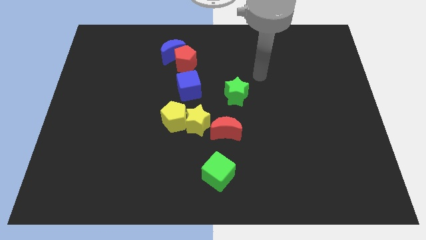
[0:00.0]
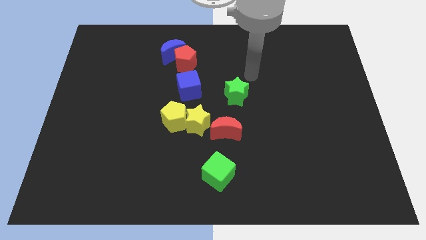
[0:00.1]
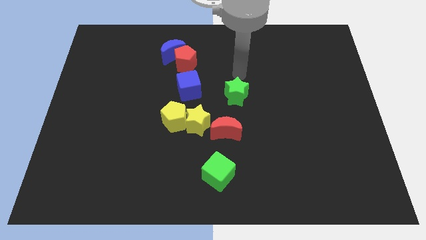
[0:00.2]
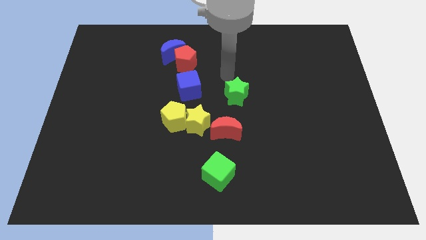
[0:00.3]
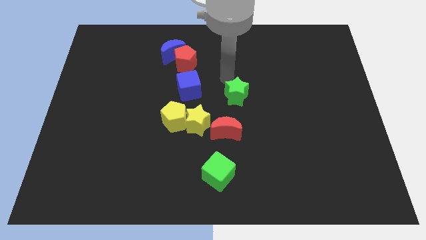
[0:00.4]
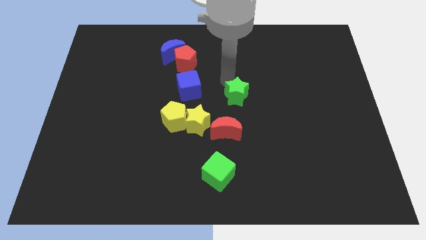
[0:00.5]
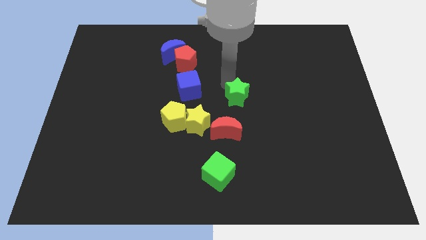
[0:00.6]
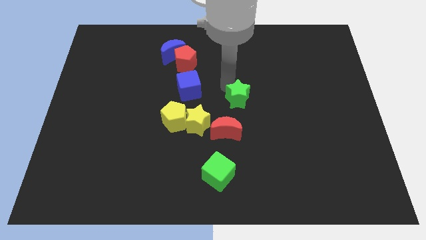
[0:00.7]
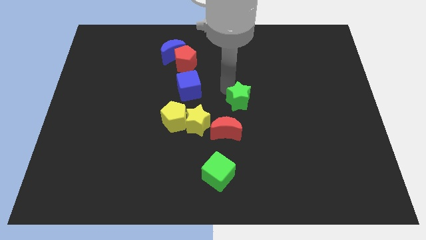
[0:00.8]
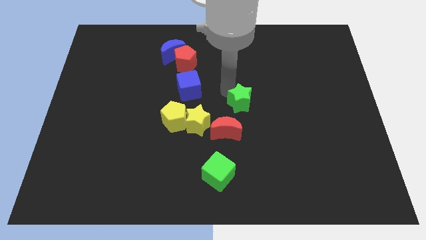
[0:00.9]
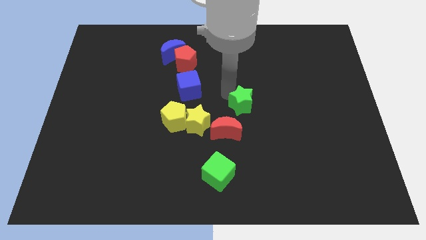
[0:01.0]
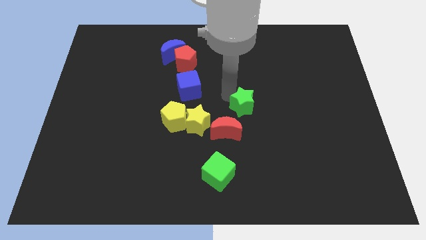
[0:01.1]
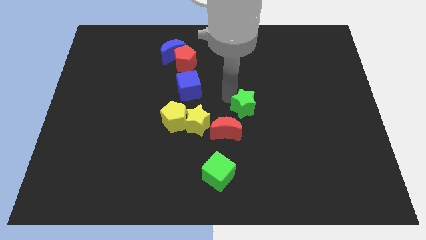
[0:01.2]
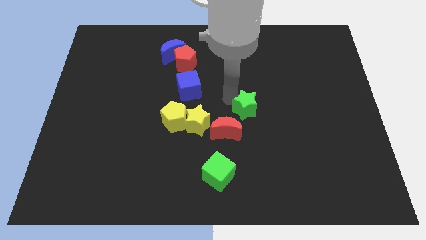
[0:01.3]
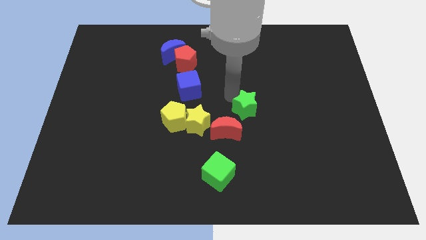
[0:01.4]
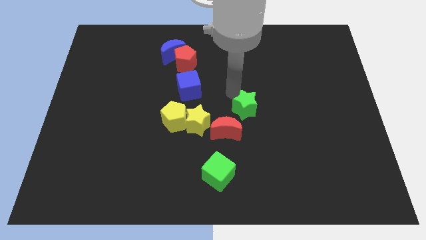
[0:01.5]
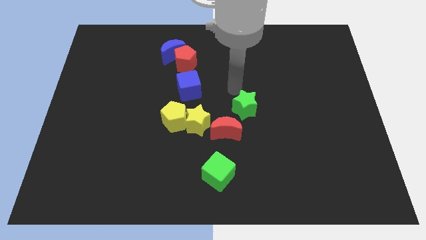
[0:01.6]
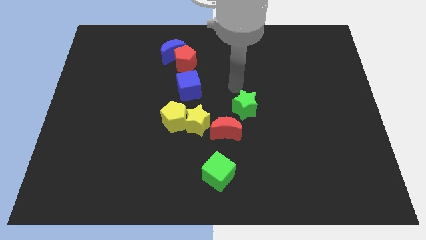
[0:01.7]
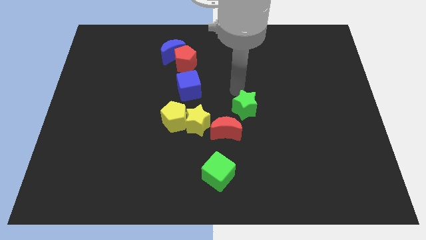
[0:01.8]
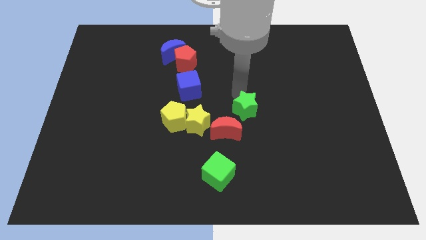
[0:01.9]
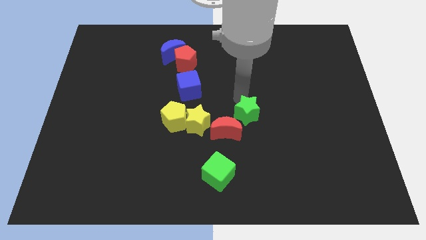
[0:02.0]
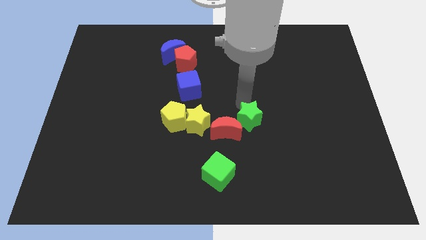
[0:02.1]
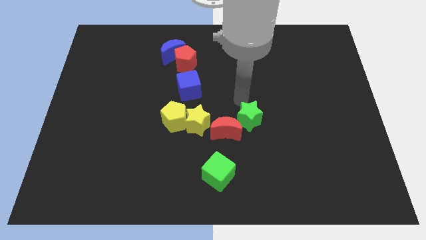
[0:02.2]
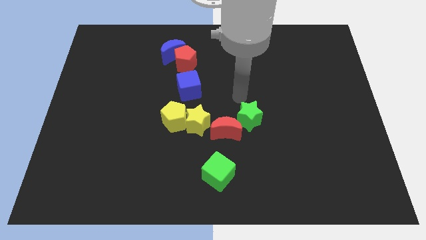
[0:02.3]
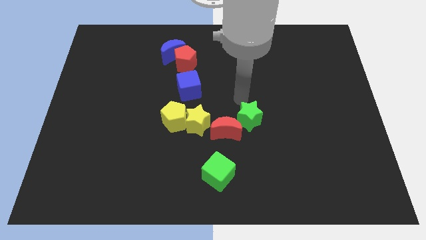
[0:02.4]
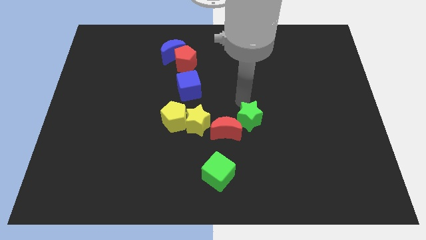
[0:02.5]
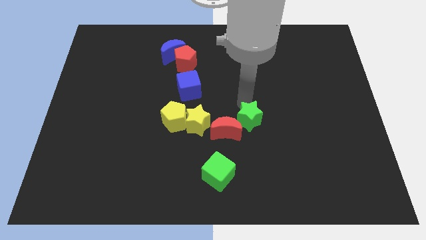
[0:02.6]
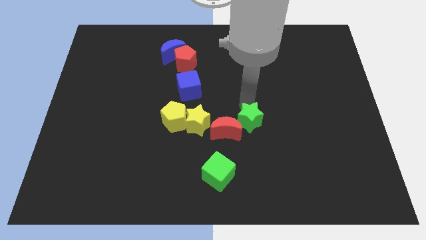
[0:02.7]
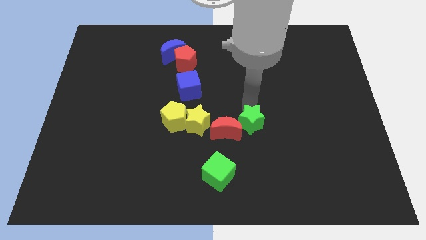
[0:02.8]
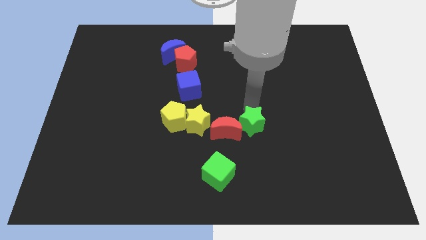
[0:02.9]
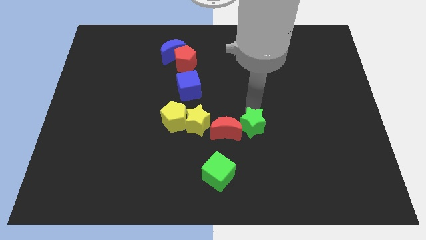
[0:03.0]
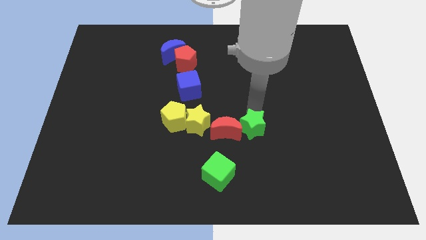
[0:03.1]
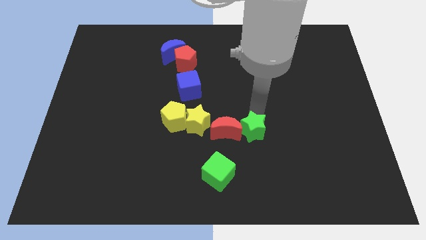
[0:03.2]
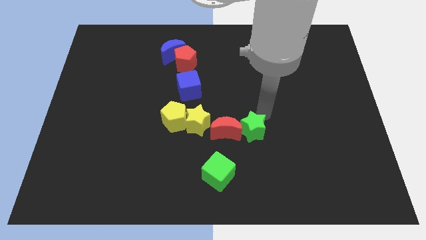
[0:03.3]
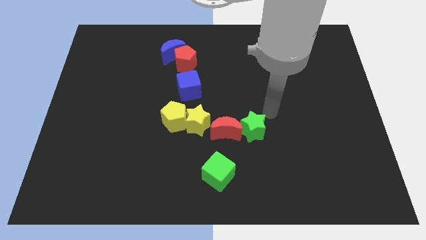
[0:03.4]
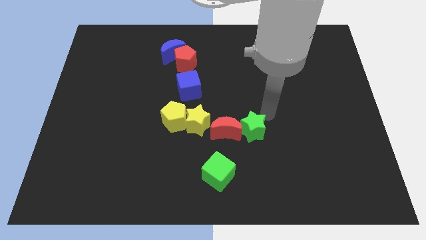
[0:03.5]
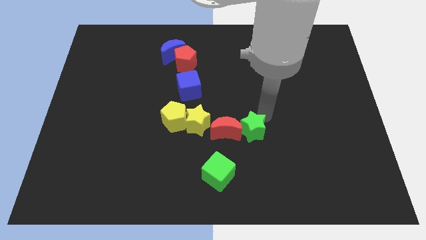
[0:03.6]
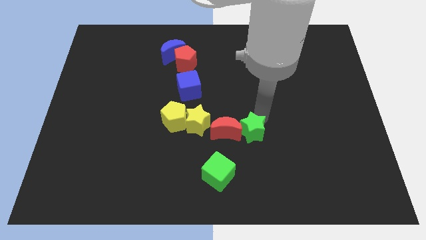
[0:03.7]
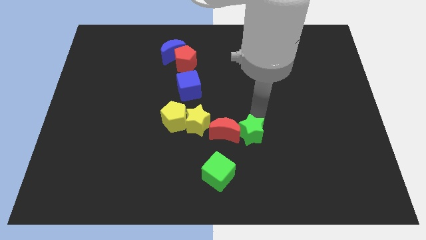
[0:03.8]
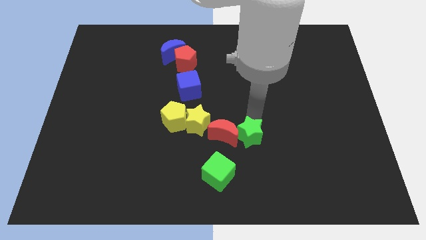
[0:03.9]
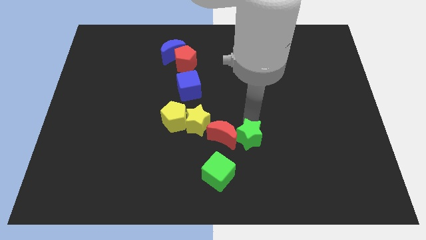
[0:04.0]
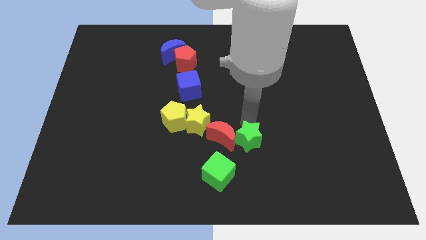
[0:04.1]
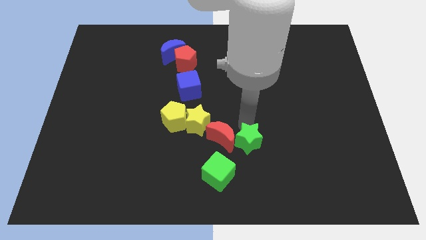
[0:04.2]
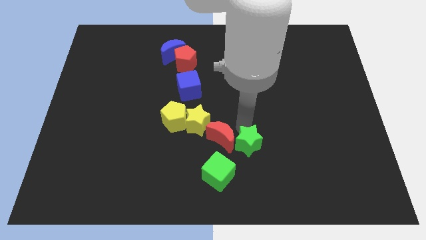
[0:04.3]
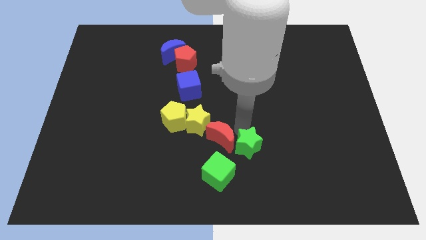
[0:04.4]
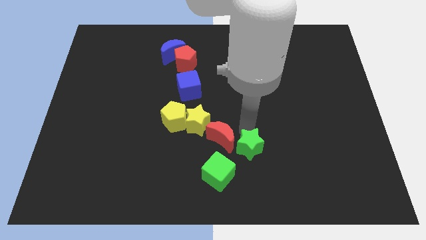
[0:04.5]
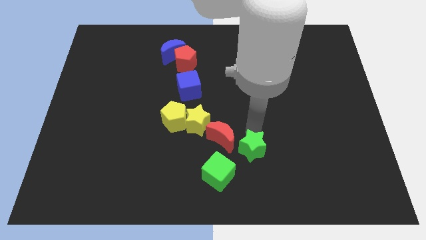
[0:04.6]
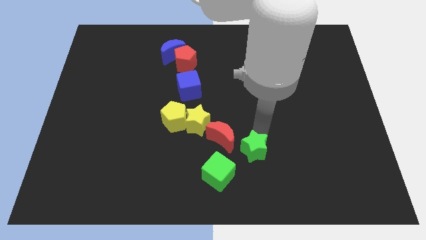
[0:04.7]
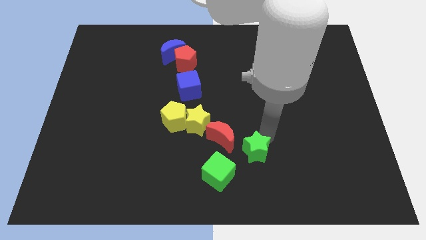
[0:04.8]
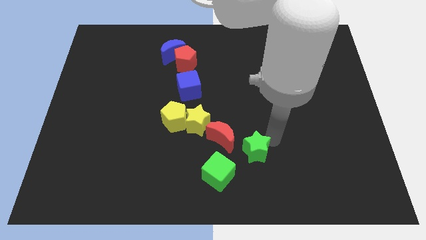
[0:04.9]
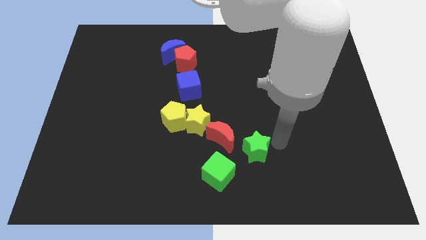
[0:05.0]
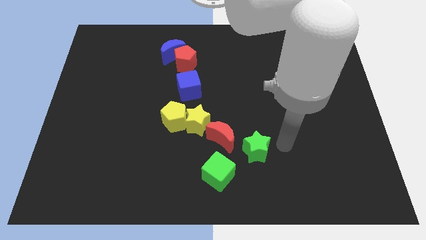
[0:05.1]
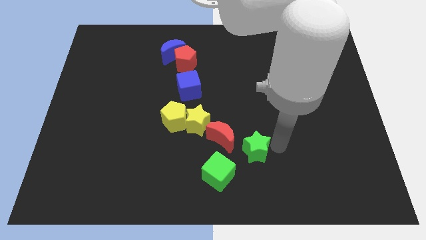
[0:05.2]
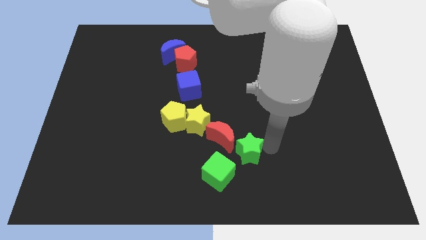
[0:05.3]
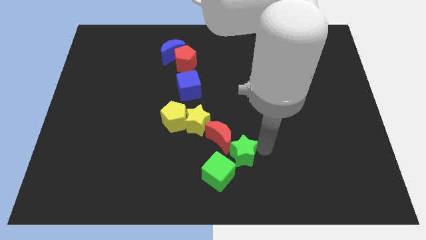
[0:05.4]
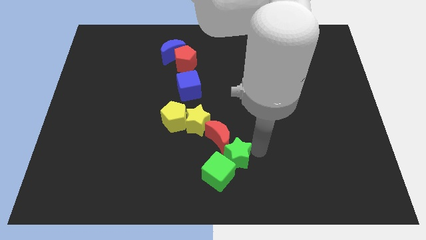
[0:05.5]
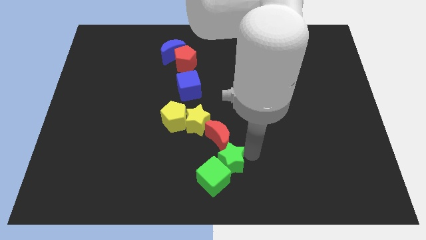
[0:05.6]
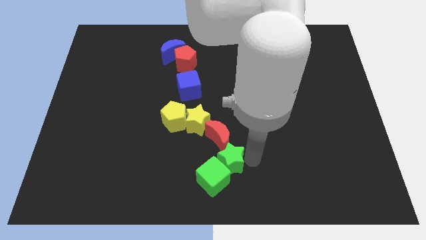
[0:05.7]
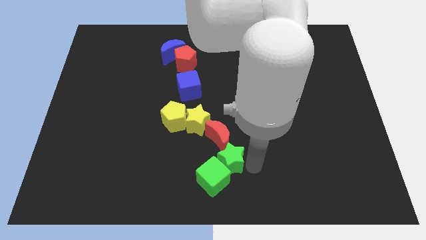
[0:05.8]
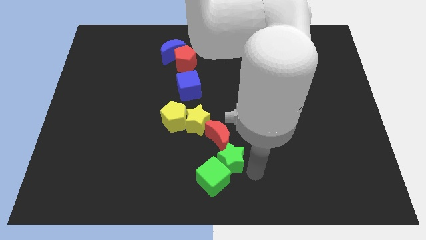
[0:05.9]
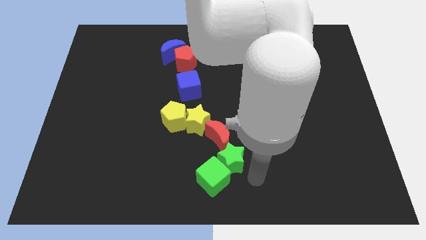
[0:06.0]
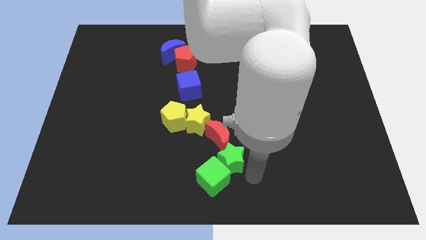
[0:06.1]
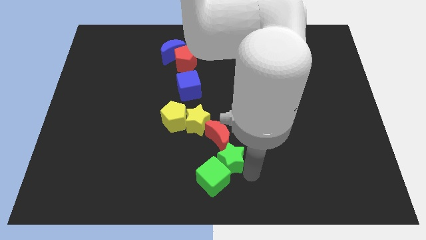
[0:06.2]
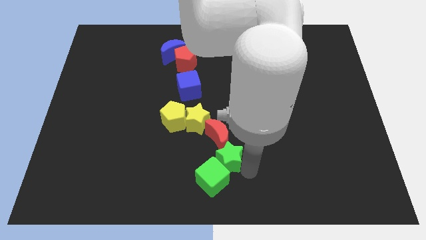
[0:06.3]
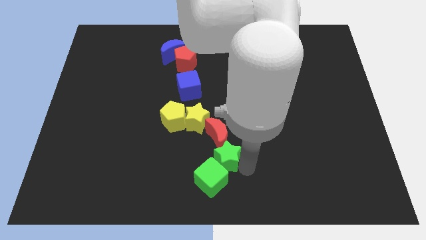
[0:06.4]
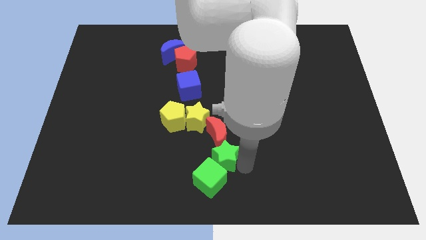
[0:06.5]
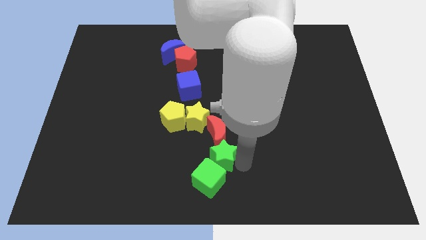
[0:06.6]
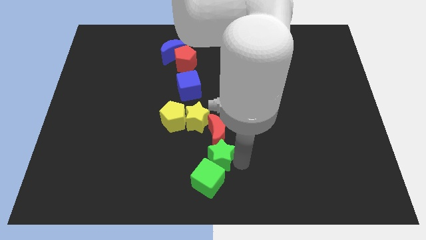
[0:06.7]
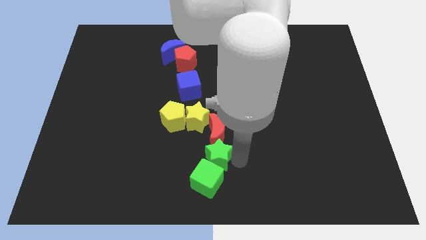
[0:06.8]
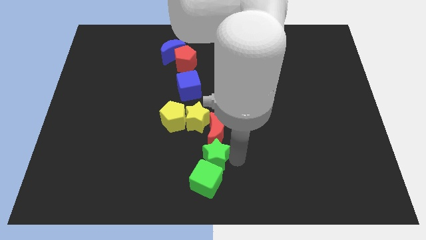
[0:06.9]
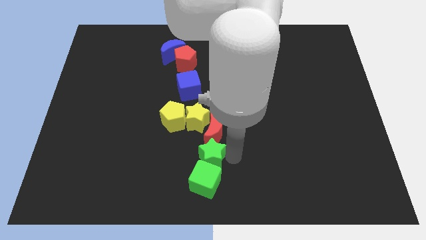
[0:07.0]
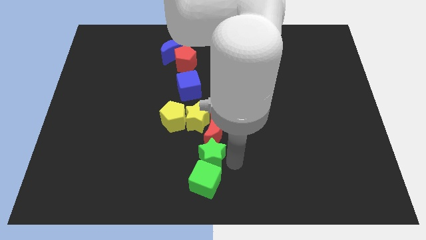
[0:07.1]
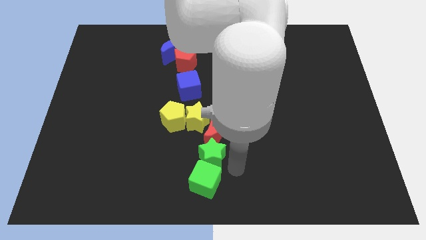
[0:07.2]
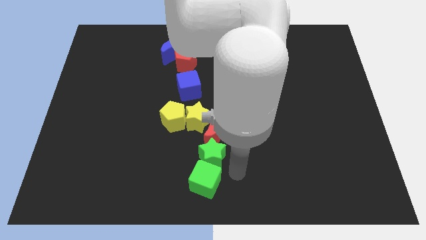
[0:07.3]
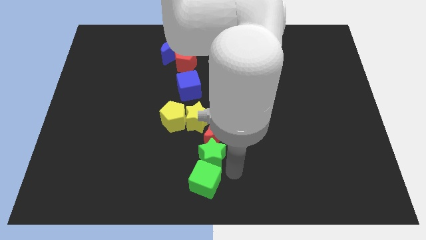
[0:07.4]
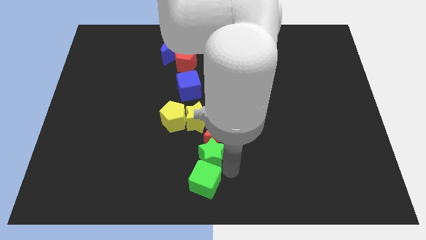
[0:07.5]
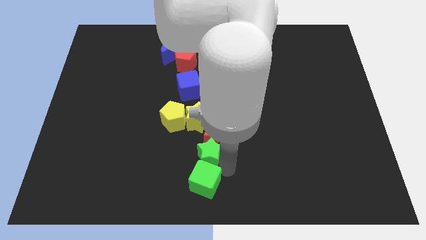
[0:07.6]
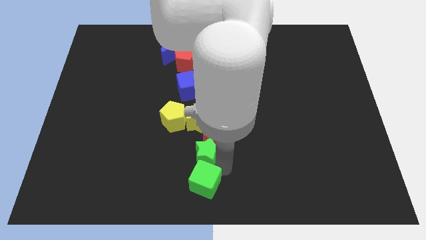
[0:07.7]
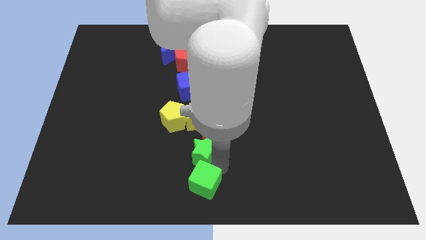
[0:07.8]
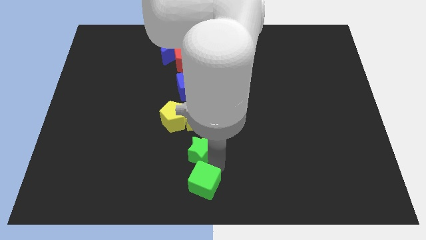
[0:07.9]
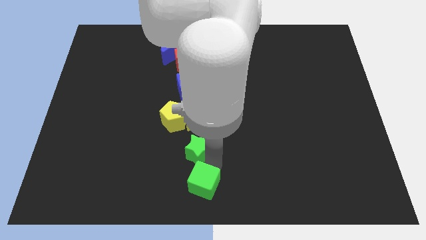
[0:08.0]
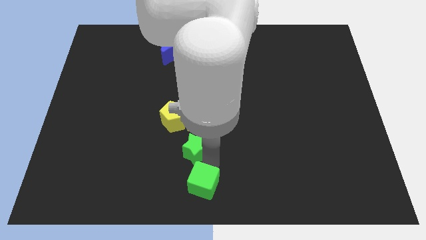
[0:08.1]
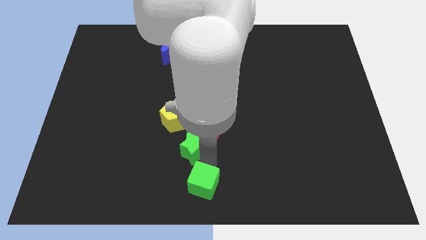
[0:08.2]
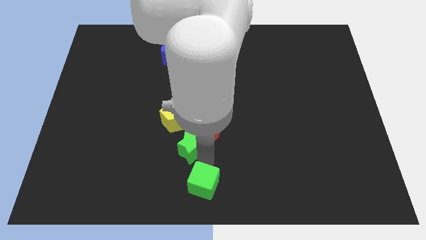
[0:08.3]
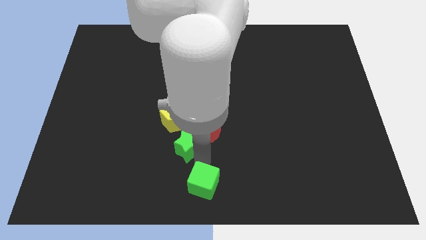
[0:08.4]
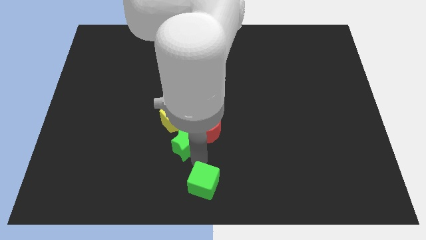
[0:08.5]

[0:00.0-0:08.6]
push the green star to the bottom side of the blue cube
